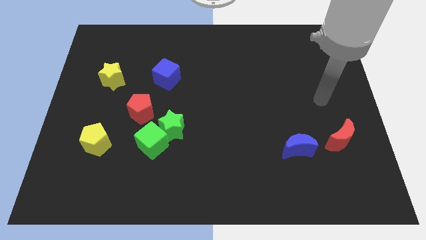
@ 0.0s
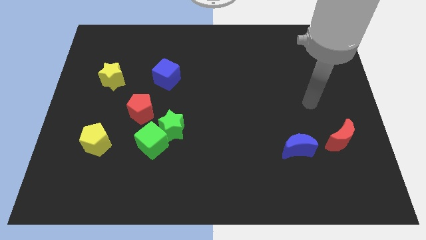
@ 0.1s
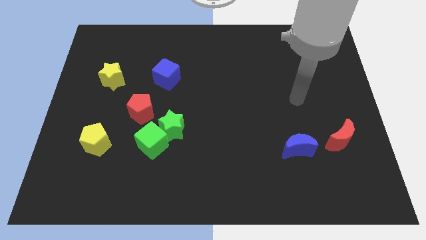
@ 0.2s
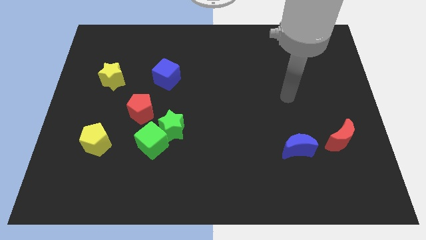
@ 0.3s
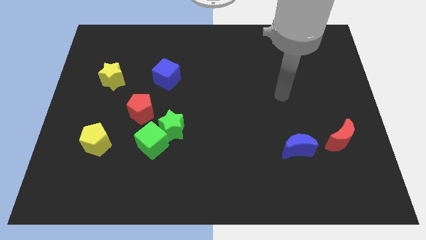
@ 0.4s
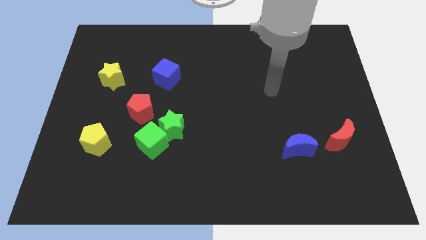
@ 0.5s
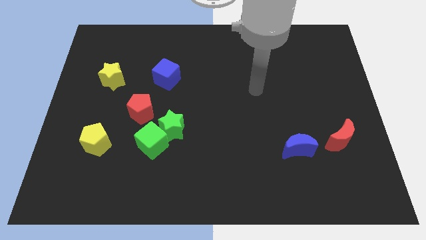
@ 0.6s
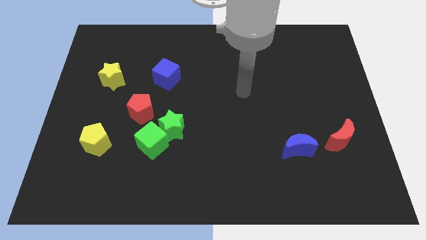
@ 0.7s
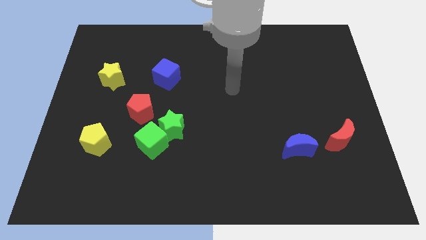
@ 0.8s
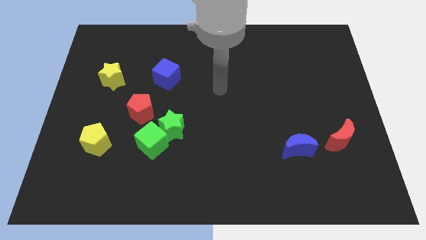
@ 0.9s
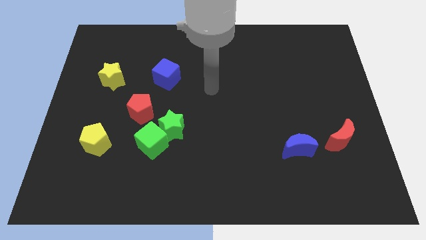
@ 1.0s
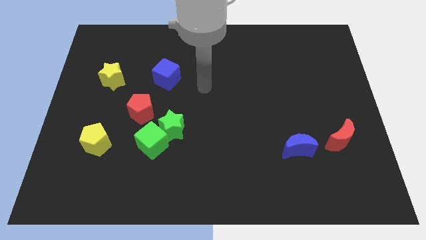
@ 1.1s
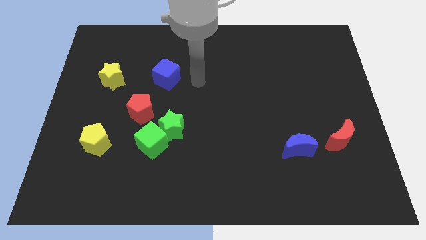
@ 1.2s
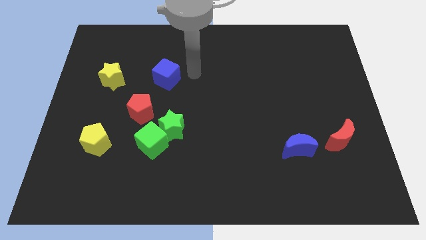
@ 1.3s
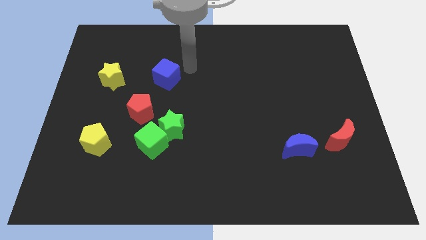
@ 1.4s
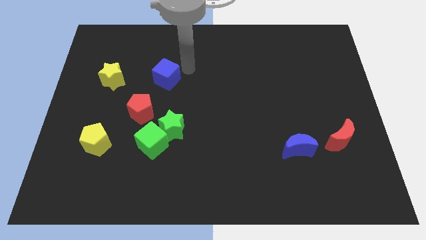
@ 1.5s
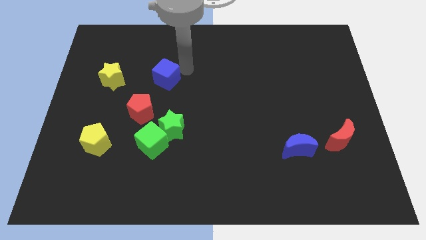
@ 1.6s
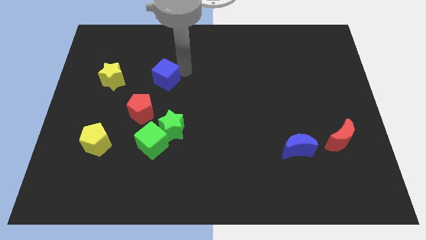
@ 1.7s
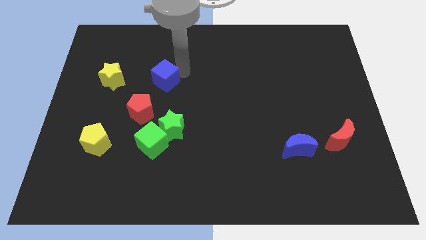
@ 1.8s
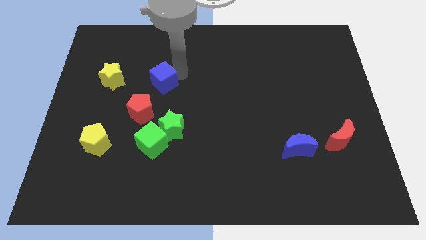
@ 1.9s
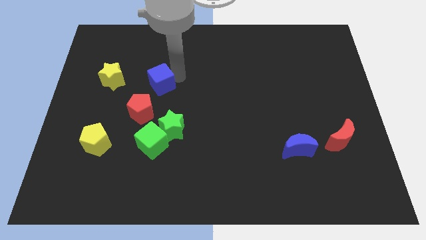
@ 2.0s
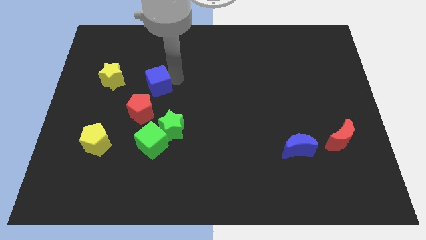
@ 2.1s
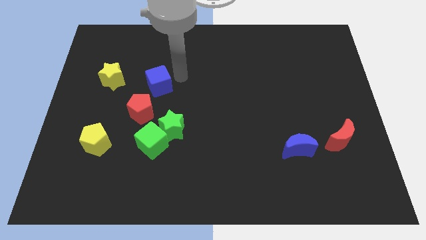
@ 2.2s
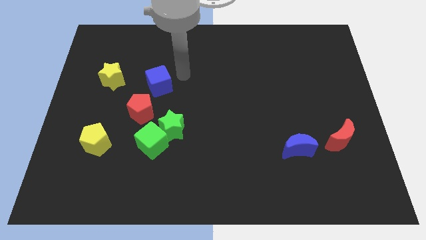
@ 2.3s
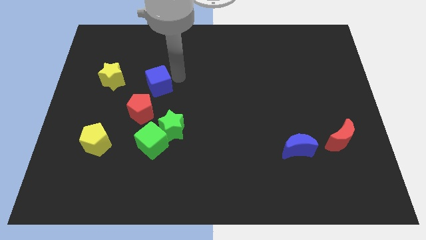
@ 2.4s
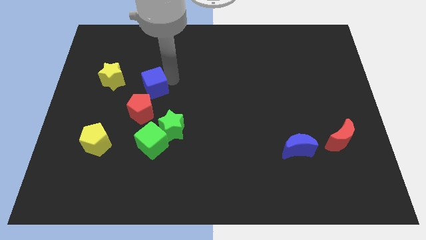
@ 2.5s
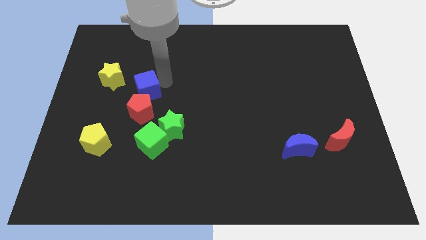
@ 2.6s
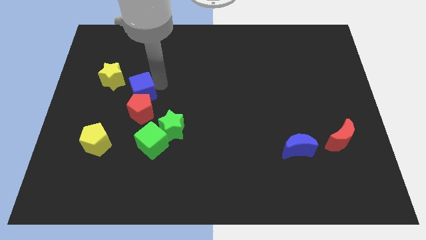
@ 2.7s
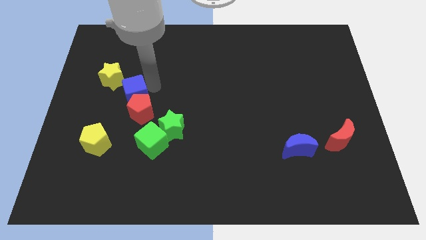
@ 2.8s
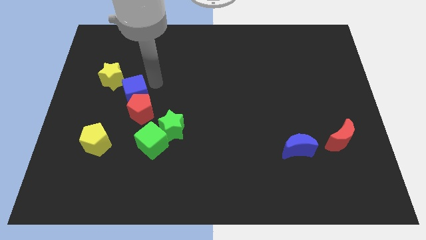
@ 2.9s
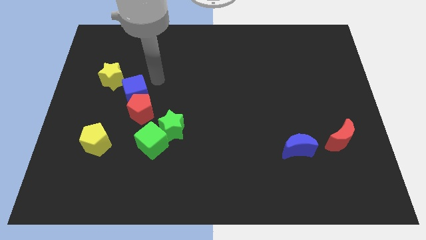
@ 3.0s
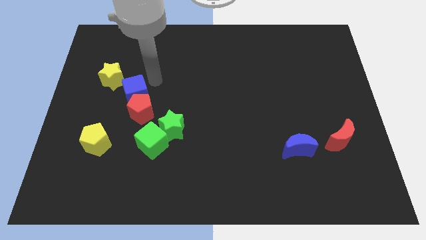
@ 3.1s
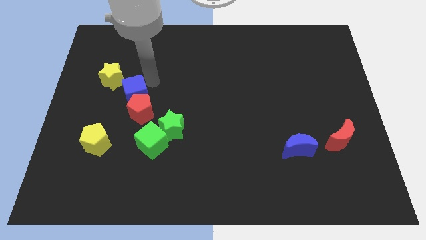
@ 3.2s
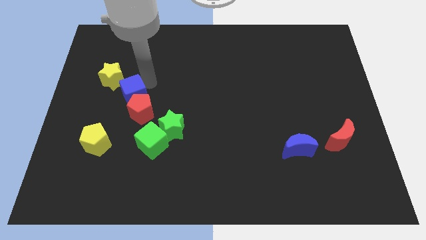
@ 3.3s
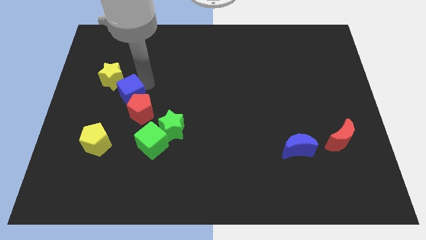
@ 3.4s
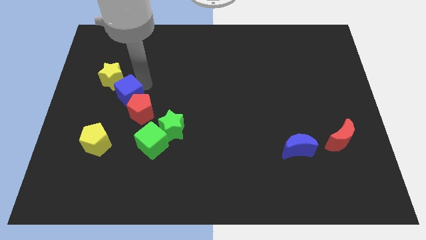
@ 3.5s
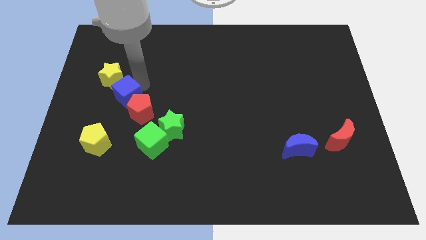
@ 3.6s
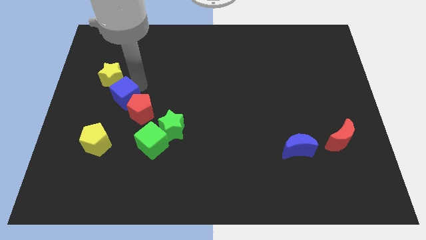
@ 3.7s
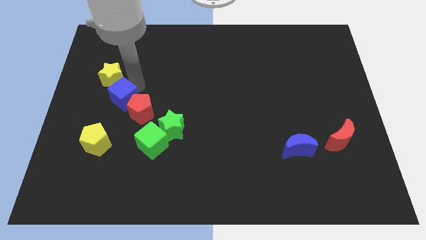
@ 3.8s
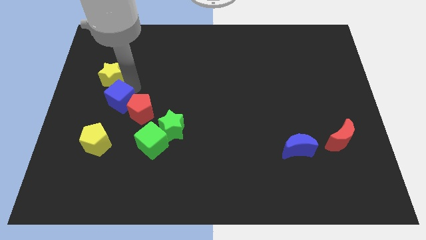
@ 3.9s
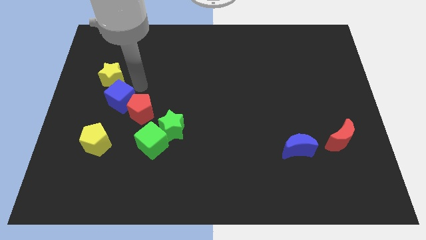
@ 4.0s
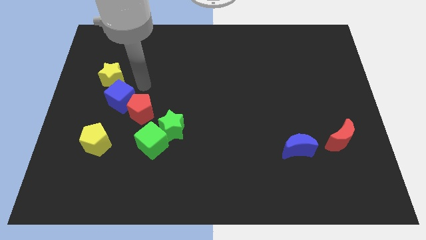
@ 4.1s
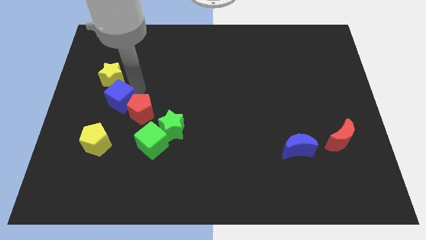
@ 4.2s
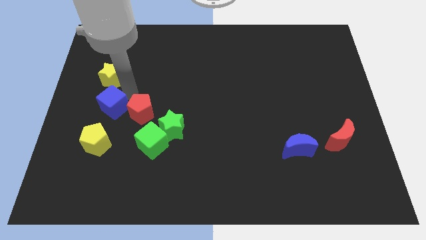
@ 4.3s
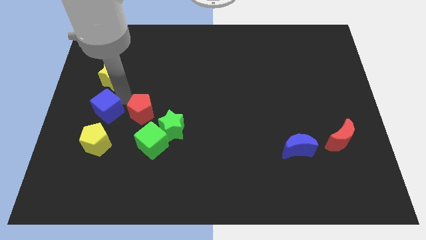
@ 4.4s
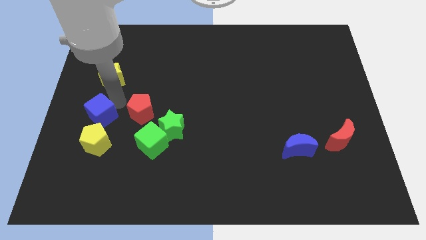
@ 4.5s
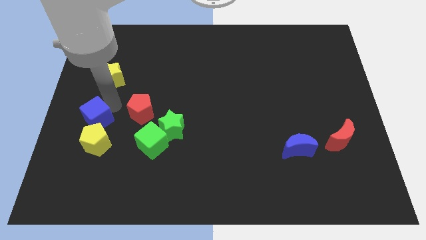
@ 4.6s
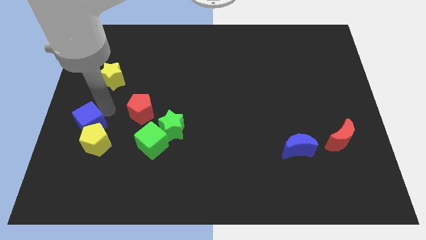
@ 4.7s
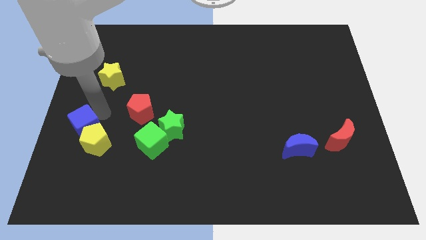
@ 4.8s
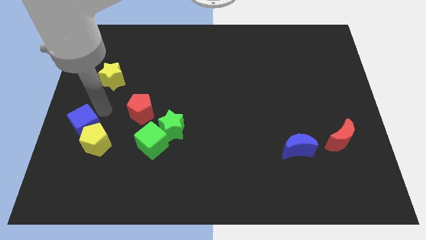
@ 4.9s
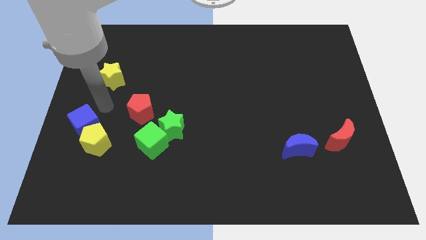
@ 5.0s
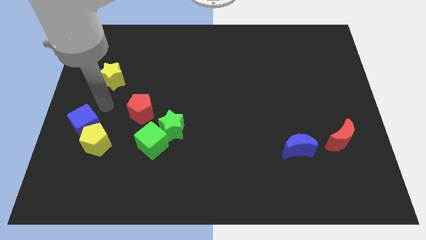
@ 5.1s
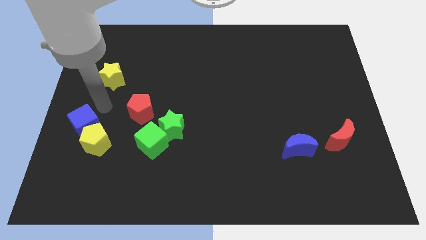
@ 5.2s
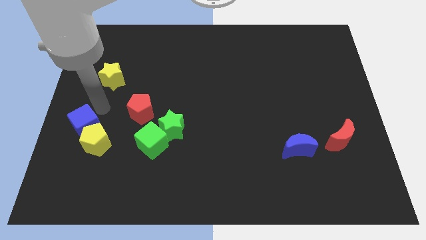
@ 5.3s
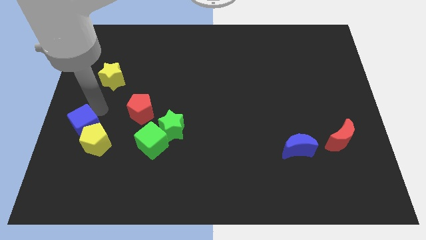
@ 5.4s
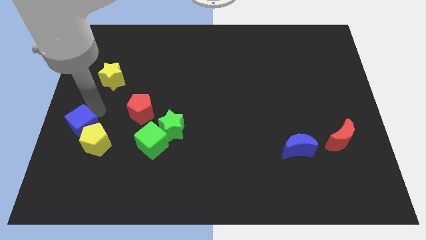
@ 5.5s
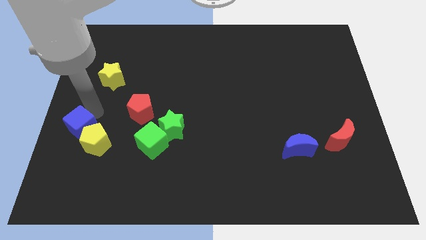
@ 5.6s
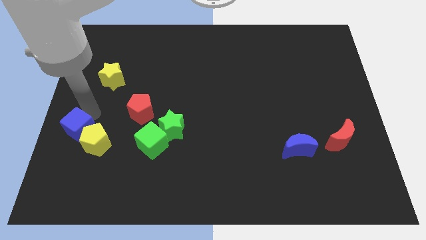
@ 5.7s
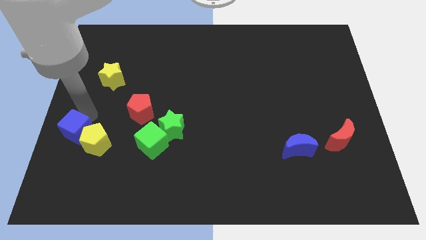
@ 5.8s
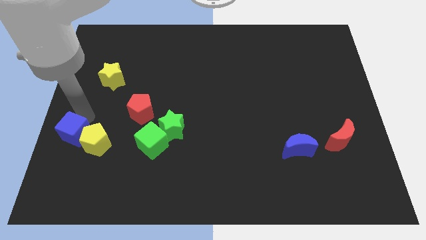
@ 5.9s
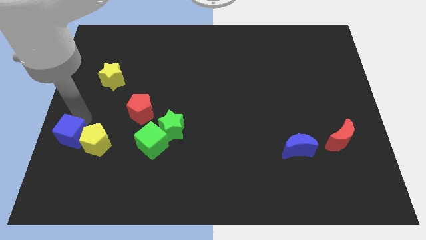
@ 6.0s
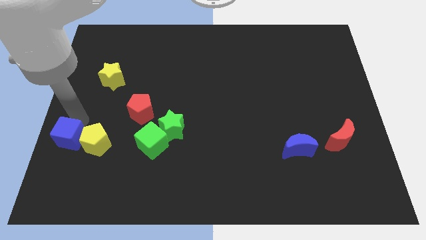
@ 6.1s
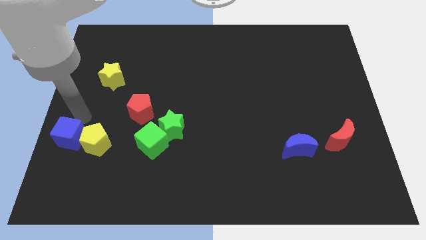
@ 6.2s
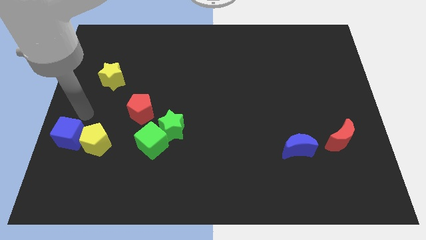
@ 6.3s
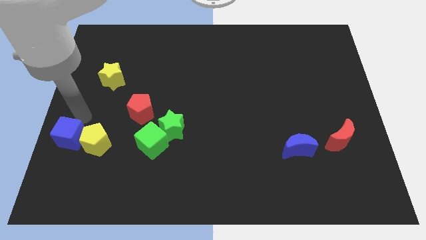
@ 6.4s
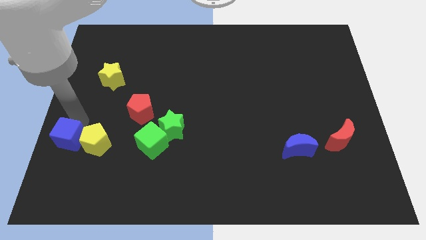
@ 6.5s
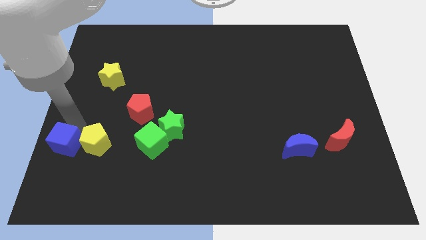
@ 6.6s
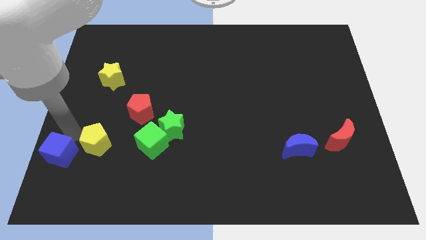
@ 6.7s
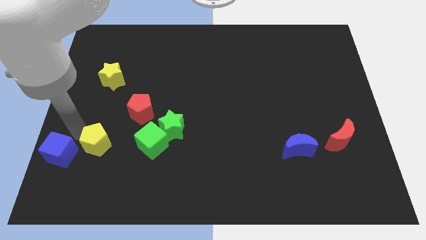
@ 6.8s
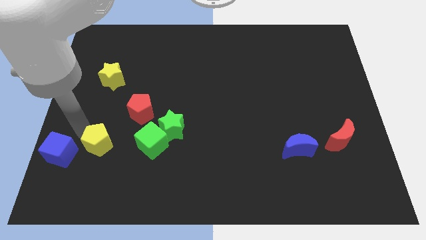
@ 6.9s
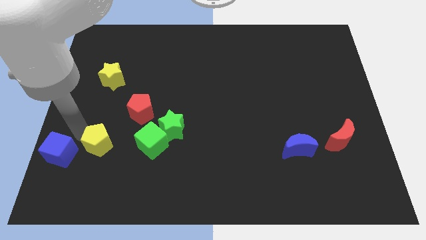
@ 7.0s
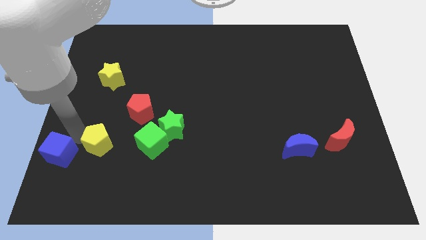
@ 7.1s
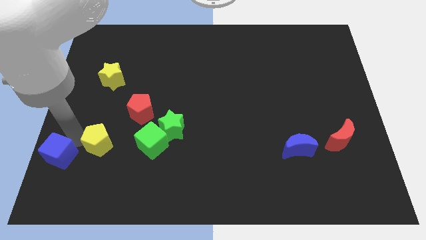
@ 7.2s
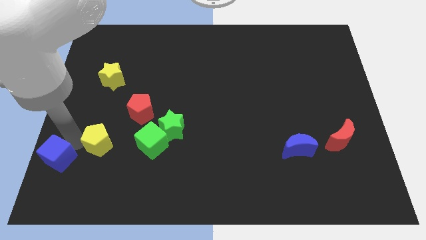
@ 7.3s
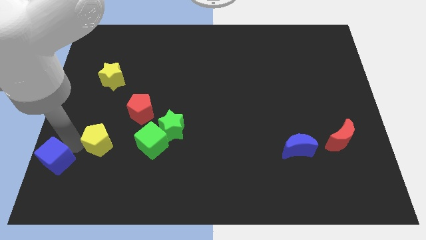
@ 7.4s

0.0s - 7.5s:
move the blue cube to the bottom left corner
